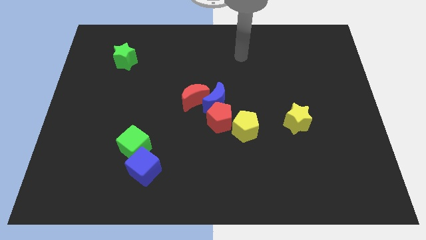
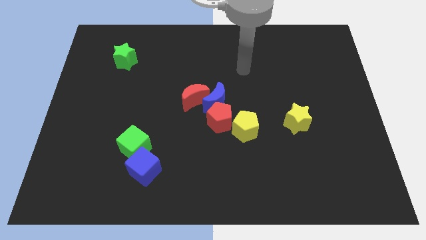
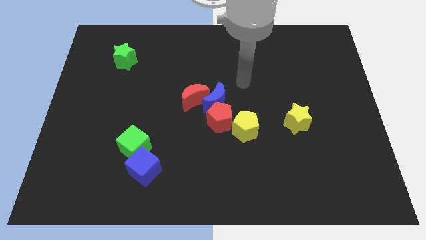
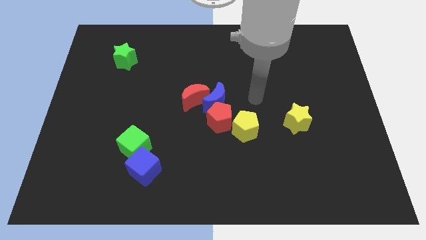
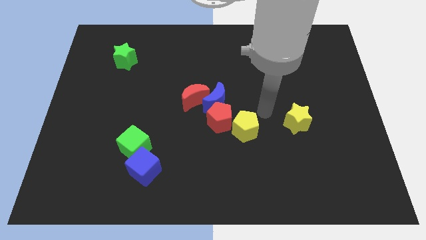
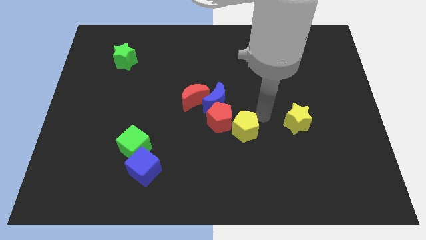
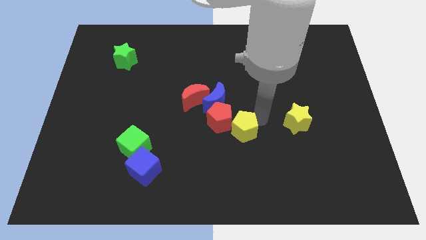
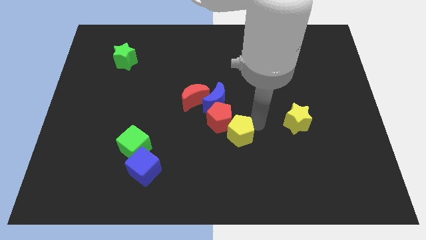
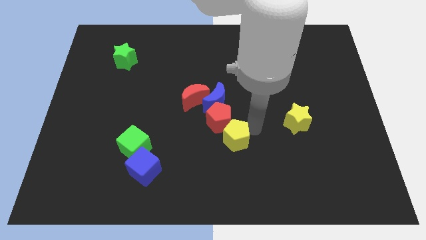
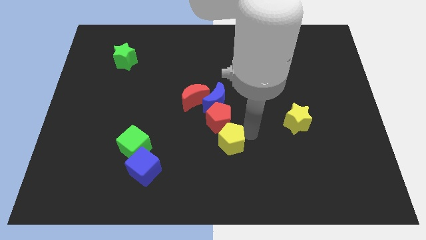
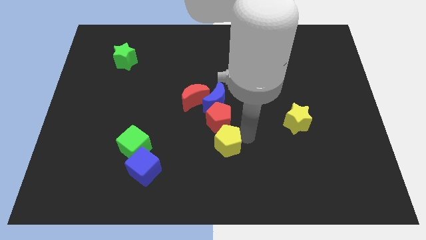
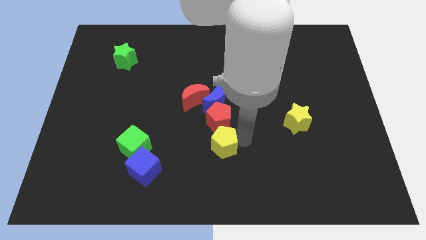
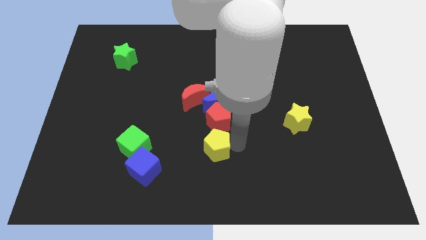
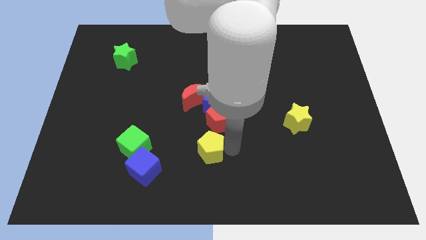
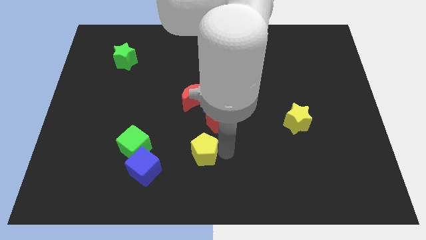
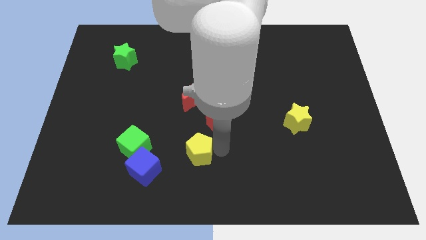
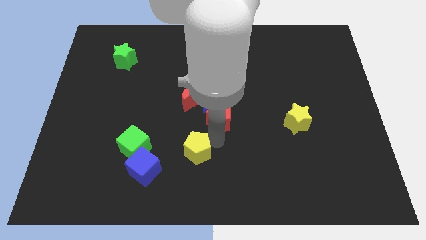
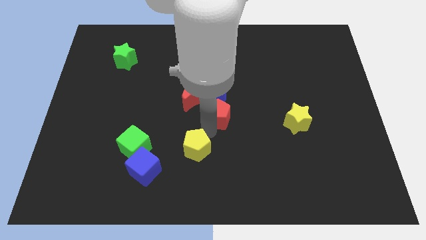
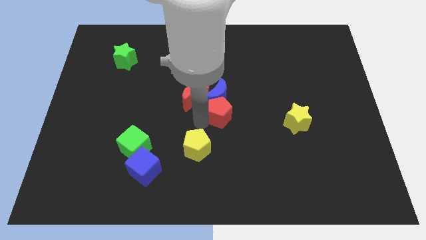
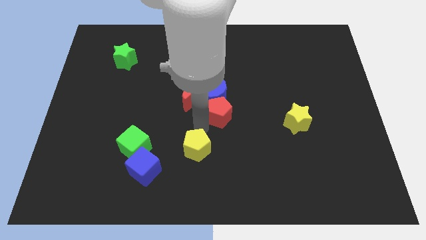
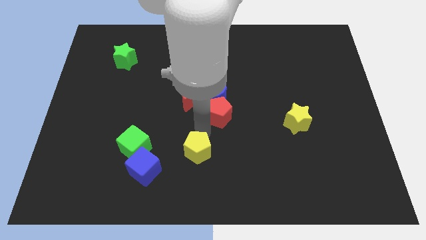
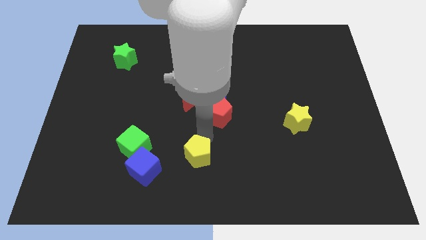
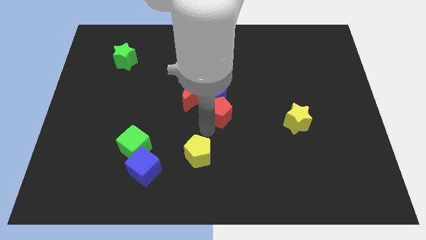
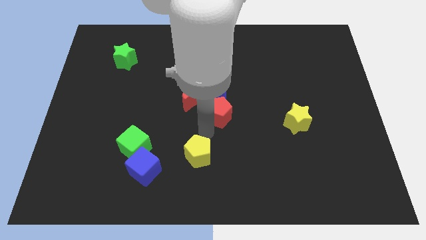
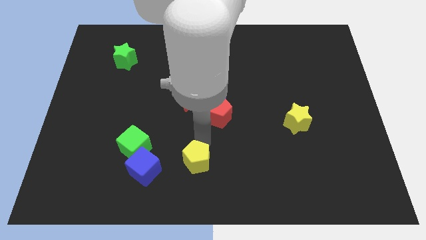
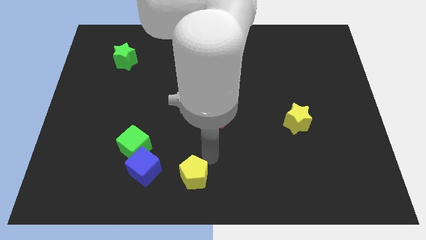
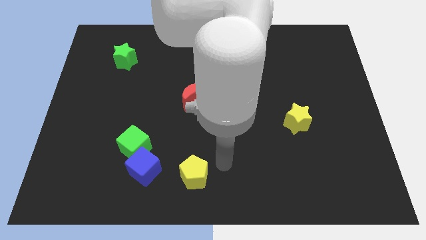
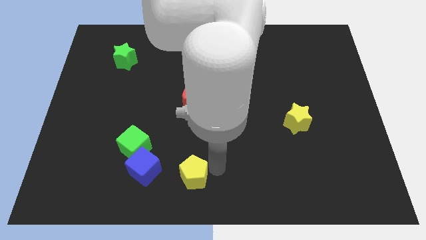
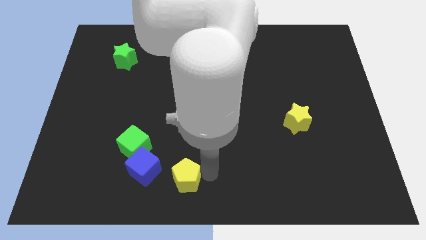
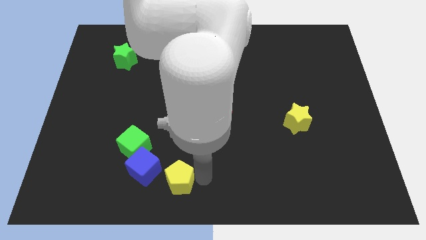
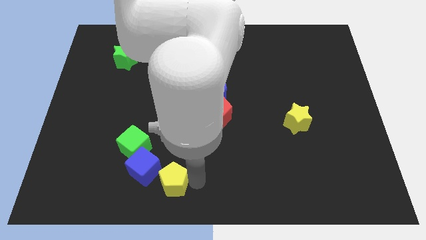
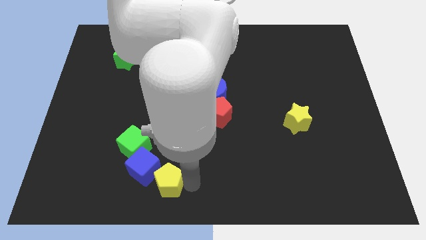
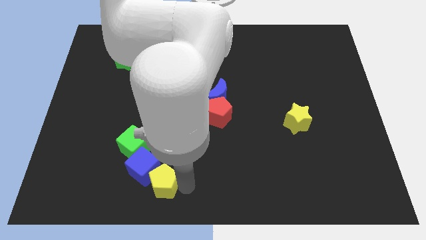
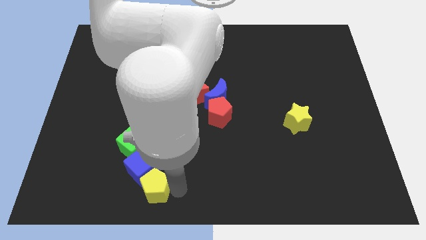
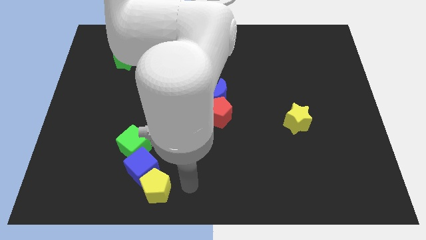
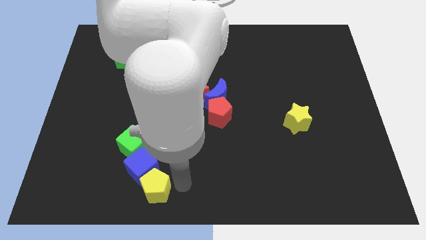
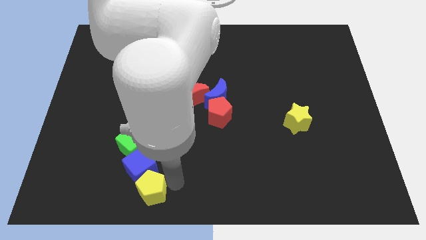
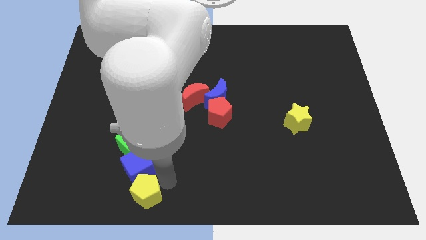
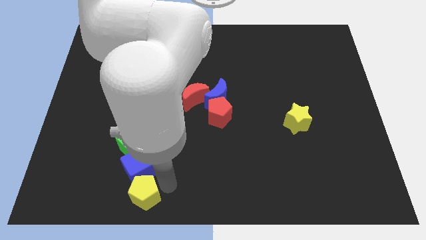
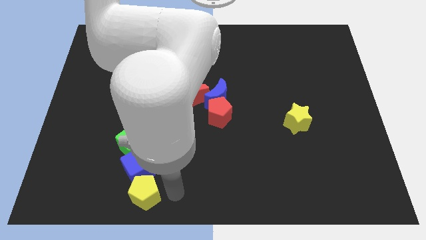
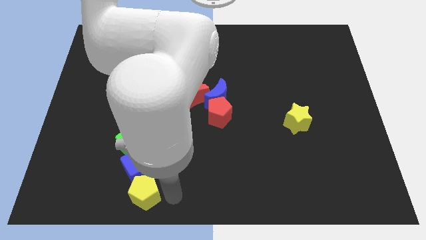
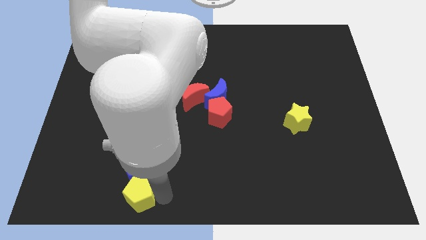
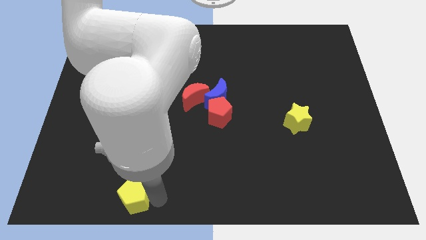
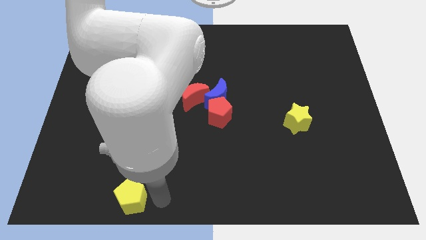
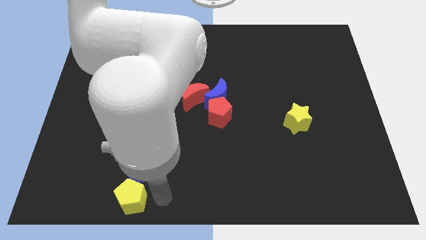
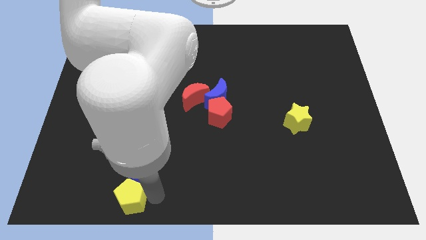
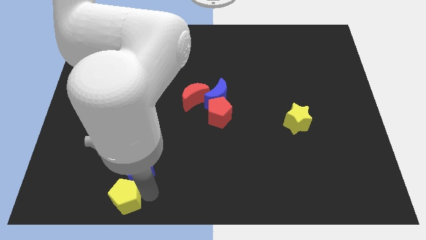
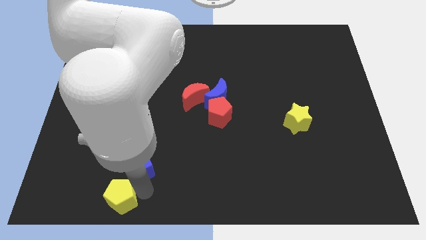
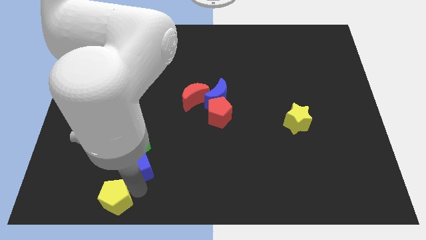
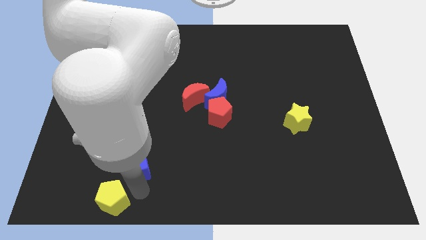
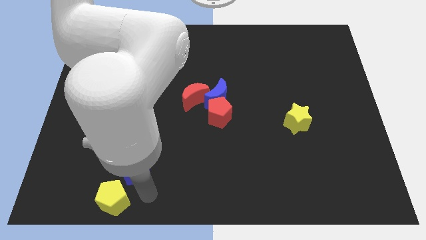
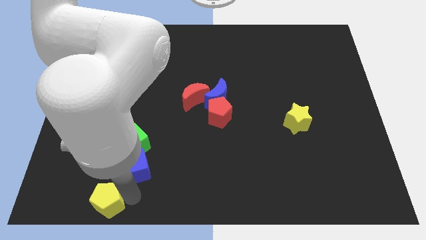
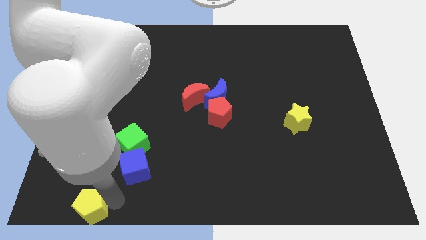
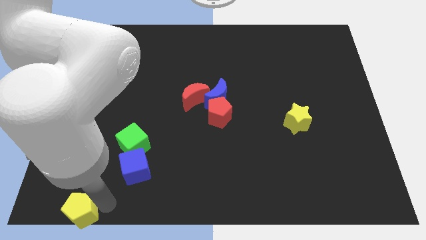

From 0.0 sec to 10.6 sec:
put the yellow pentagon to the bottom left

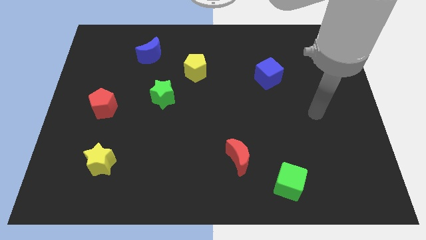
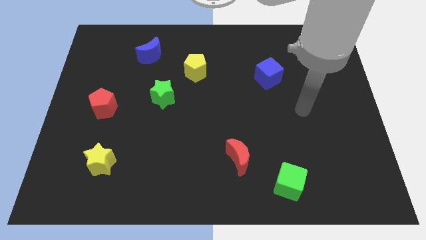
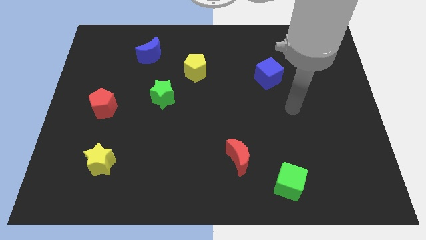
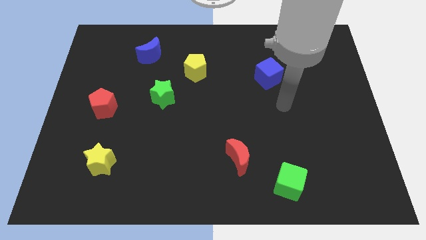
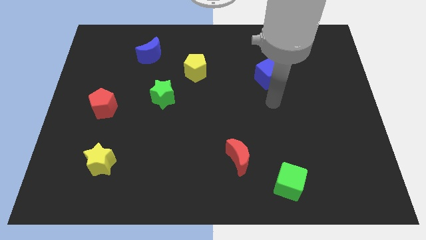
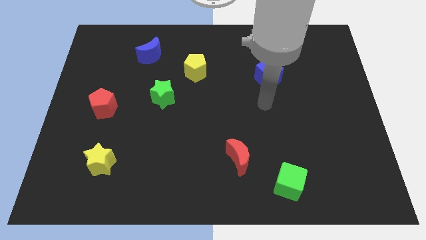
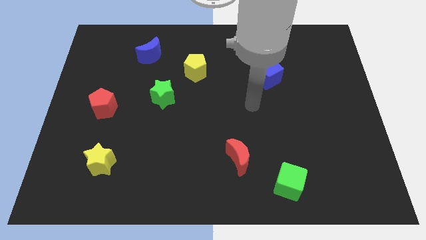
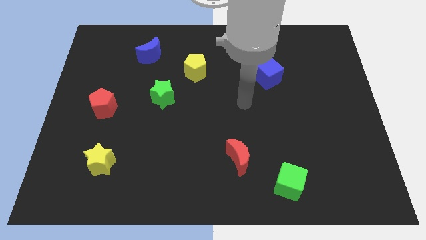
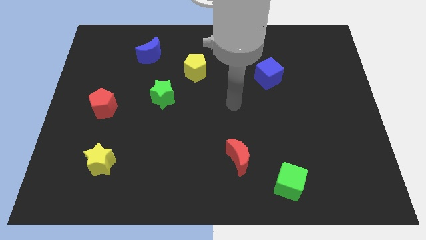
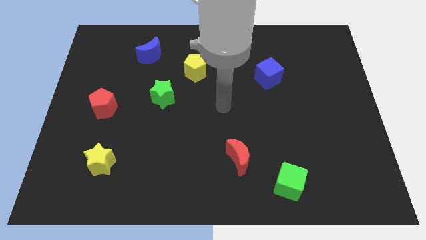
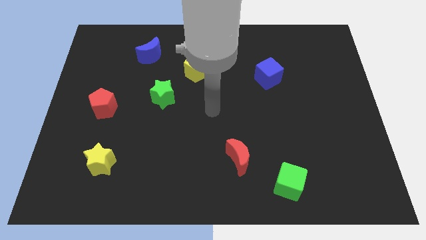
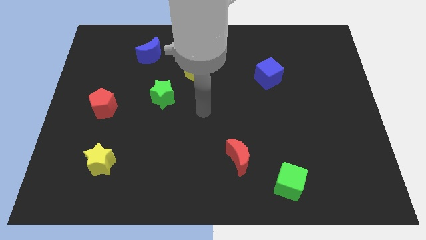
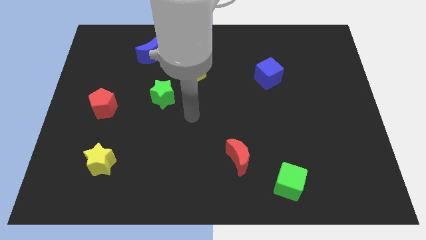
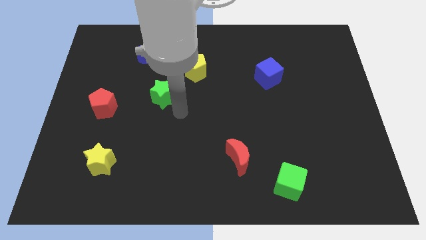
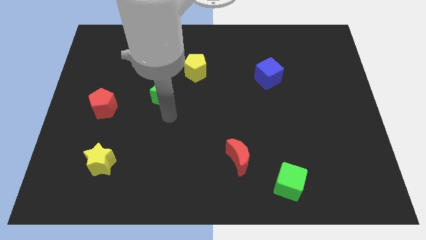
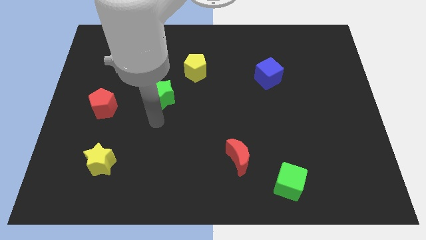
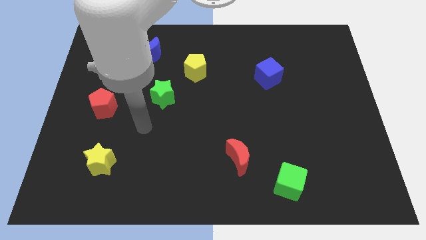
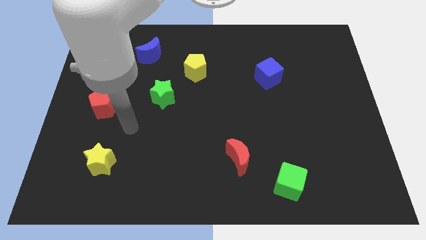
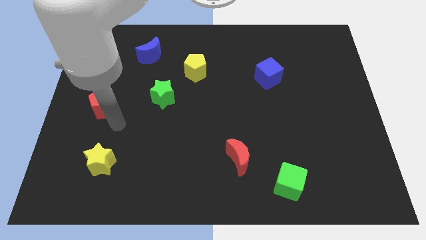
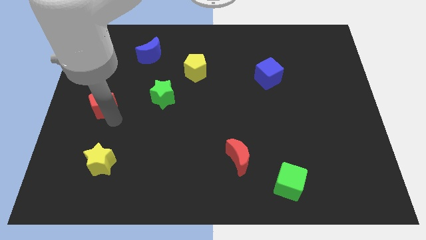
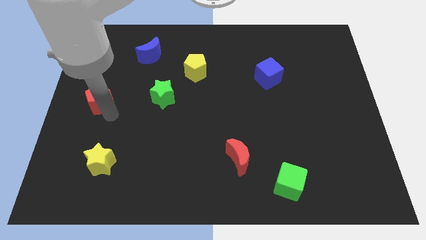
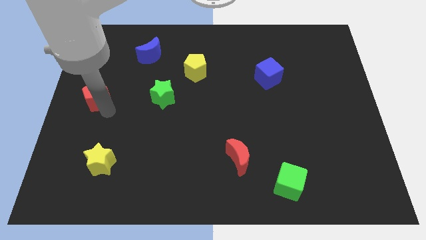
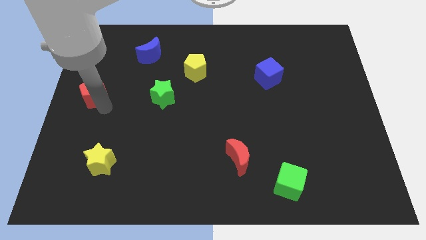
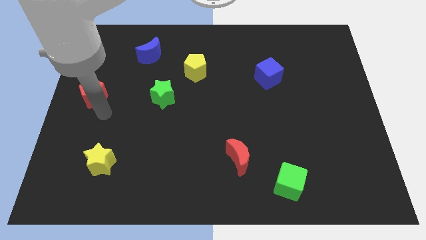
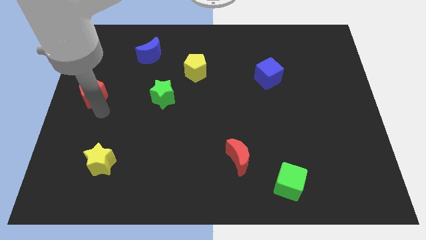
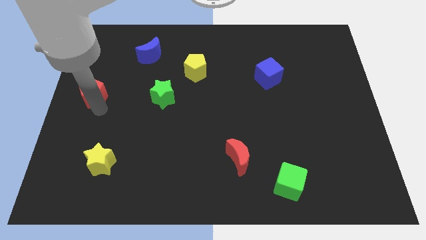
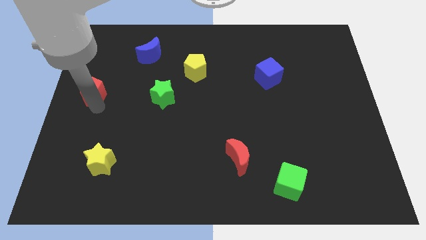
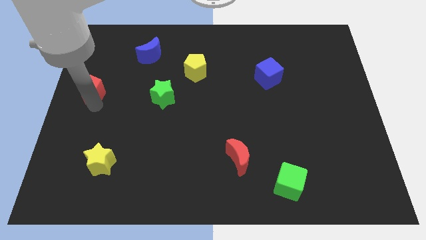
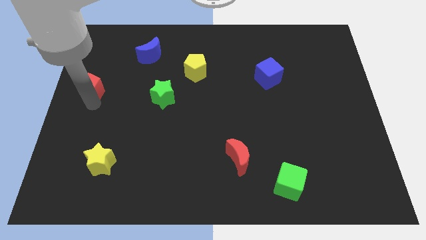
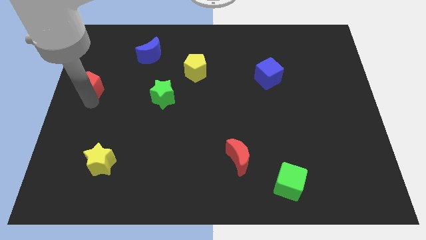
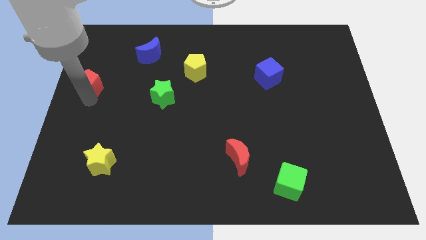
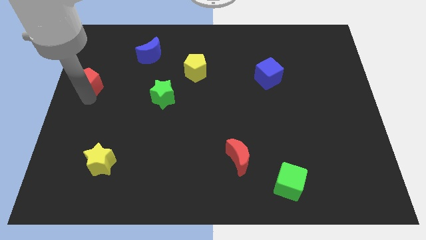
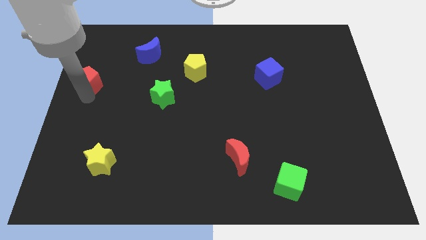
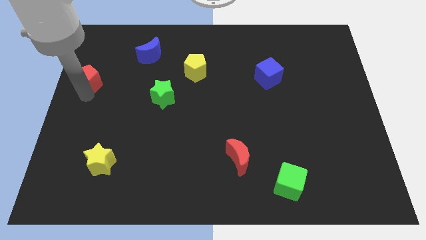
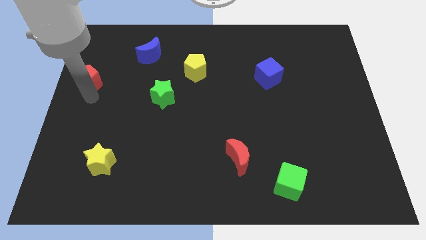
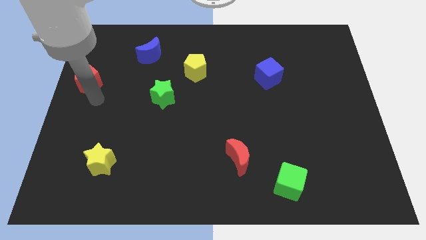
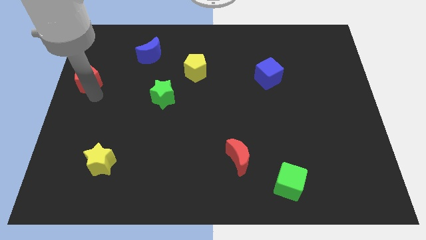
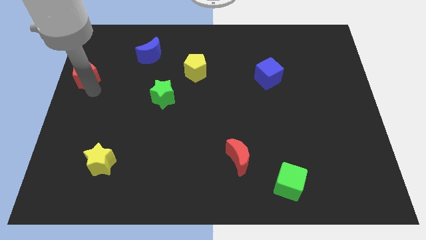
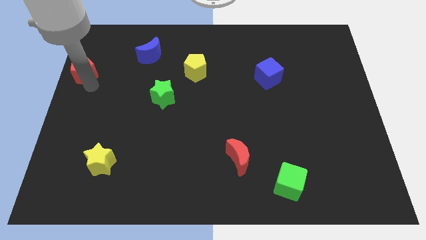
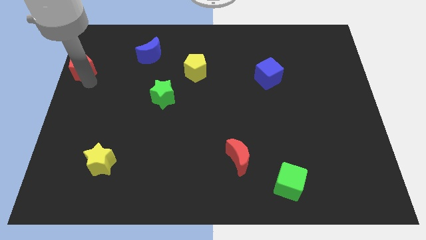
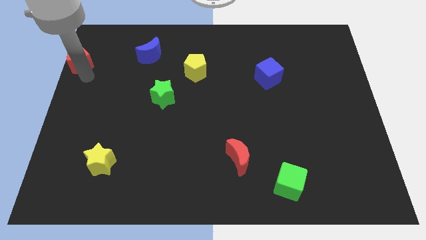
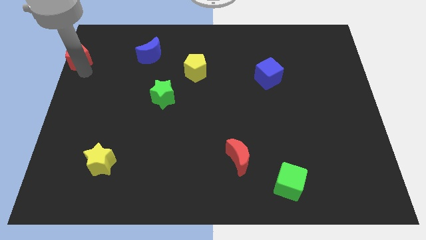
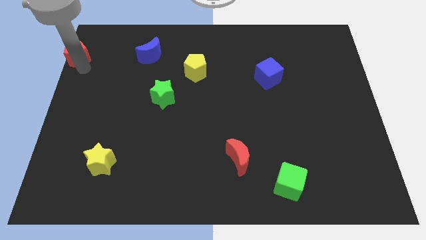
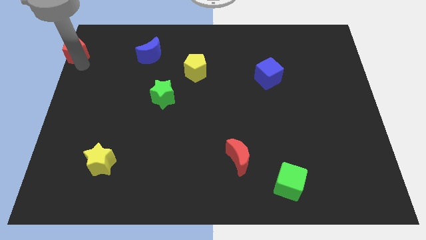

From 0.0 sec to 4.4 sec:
push the red pentagon to the top left
